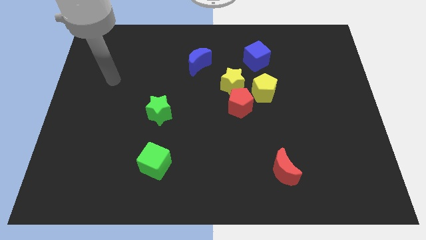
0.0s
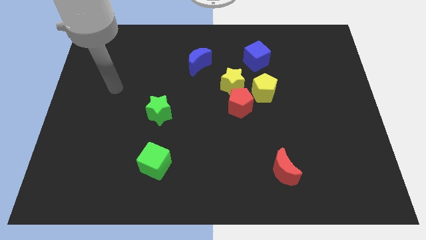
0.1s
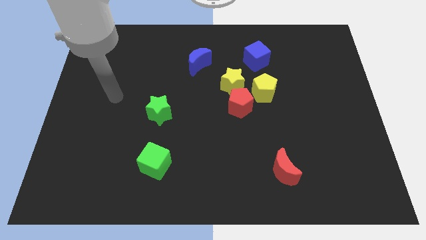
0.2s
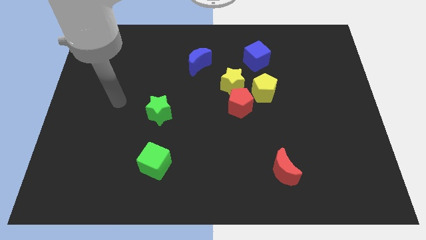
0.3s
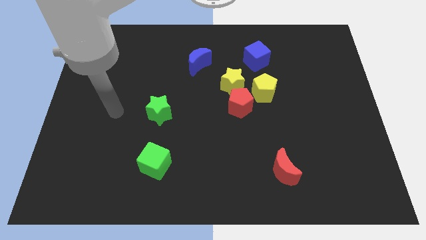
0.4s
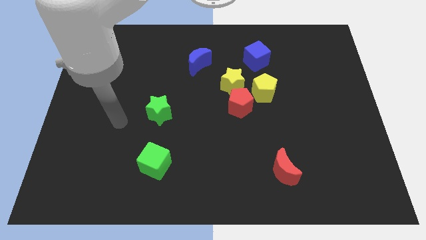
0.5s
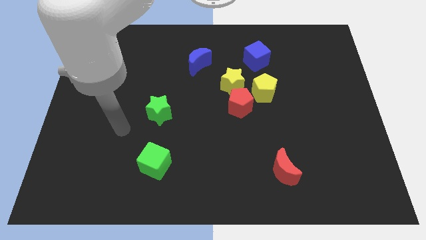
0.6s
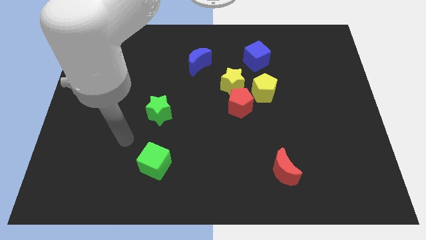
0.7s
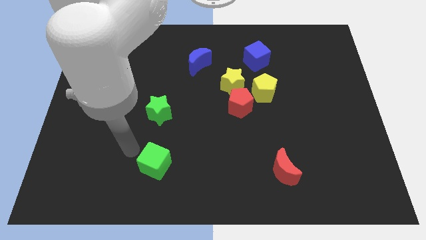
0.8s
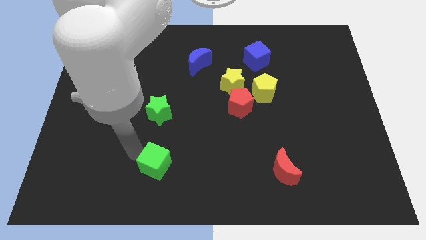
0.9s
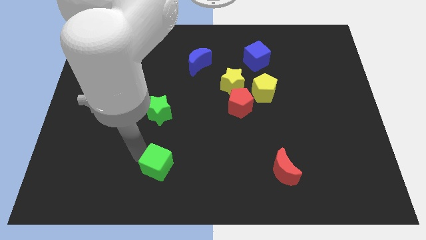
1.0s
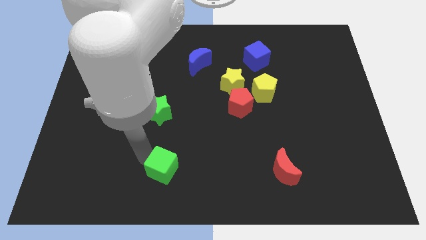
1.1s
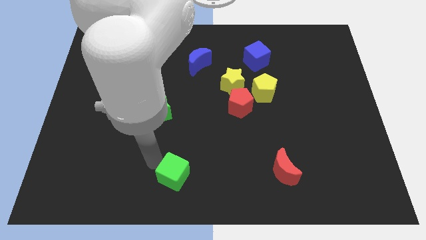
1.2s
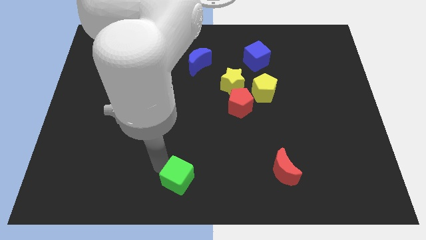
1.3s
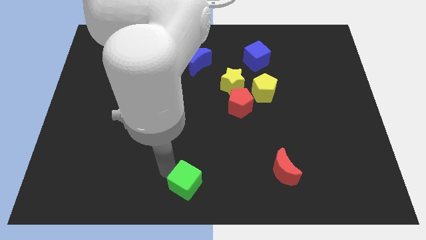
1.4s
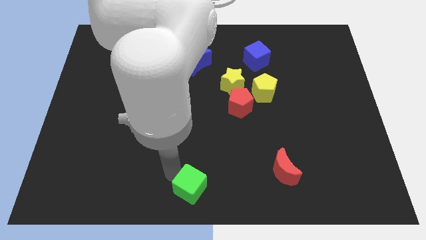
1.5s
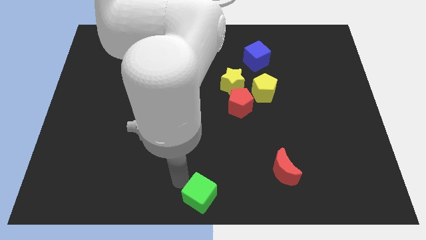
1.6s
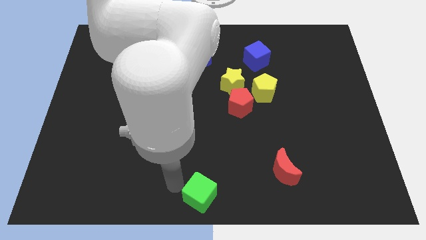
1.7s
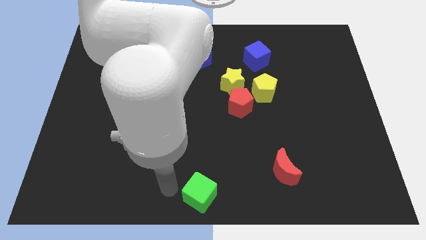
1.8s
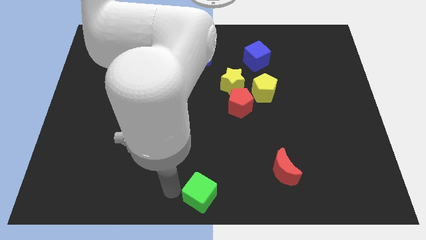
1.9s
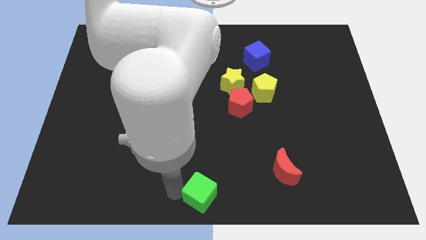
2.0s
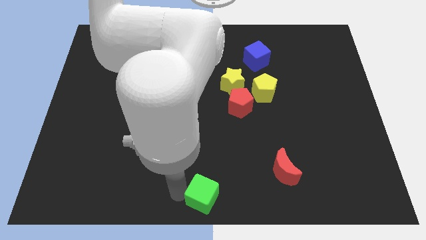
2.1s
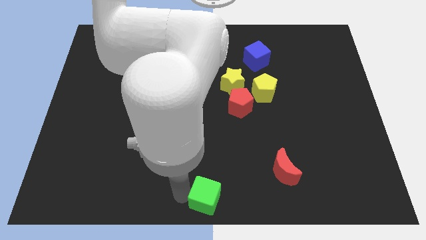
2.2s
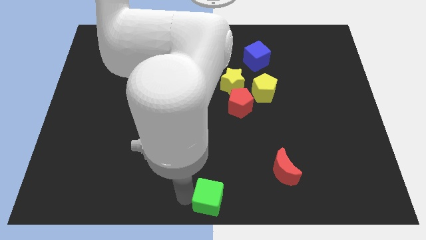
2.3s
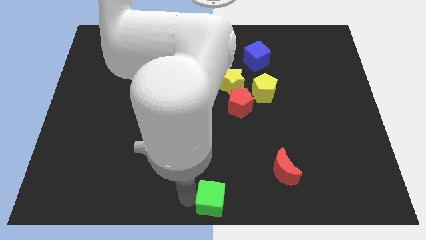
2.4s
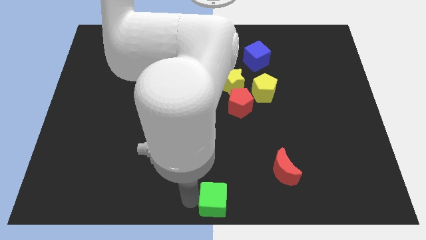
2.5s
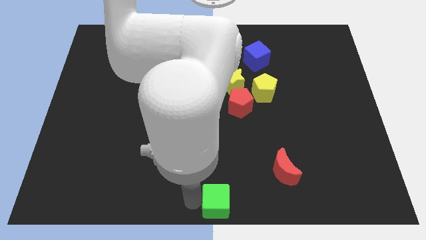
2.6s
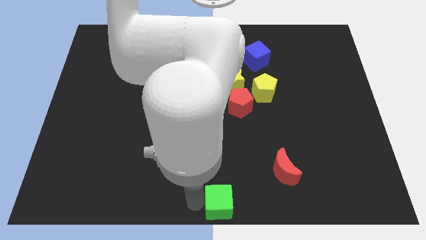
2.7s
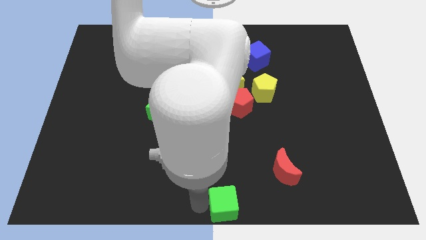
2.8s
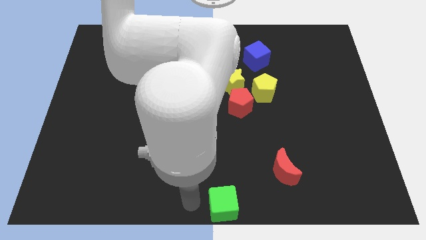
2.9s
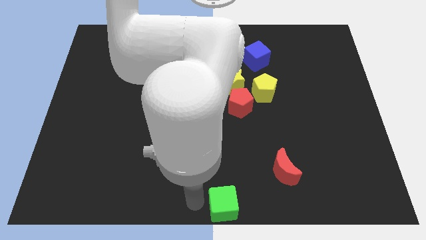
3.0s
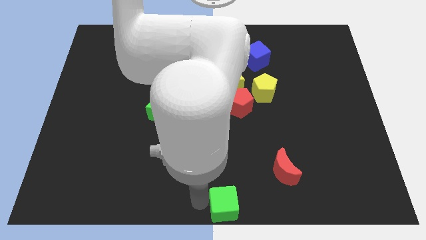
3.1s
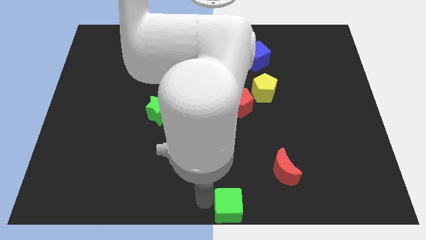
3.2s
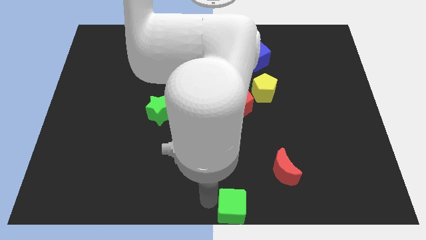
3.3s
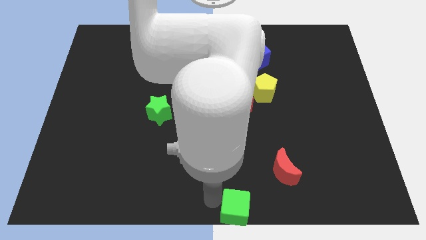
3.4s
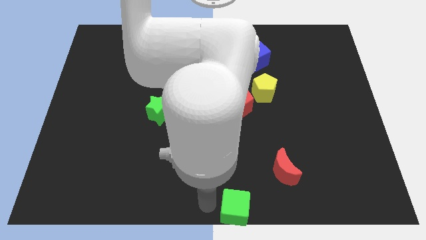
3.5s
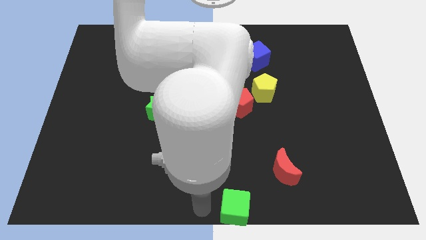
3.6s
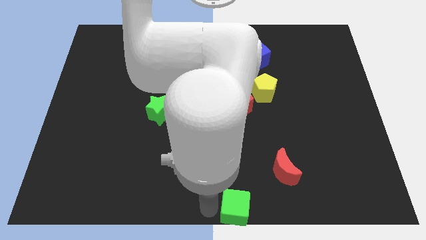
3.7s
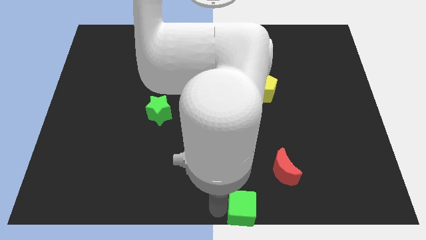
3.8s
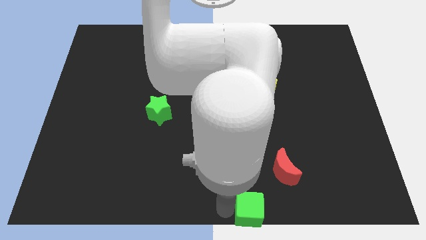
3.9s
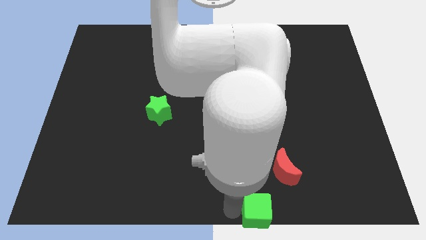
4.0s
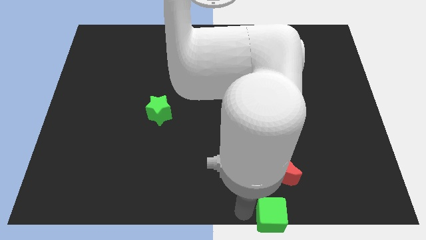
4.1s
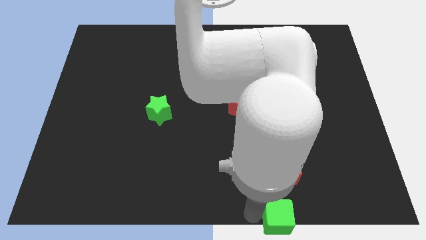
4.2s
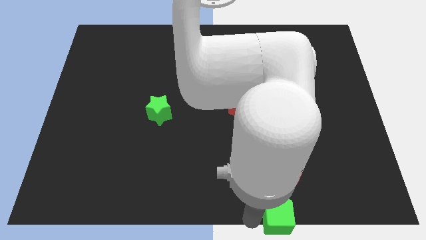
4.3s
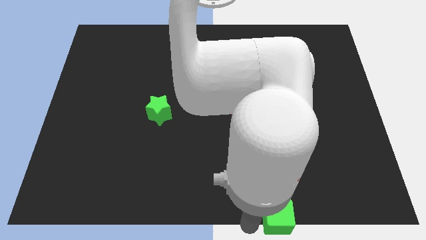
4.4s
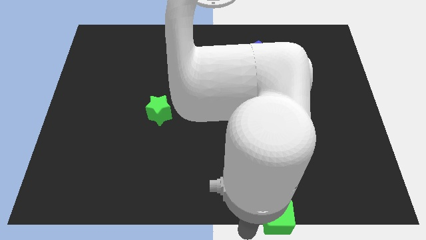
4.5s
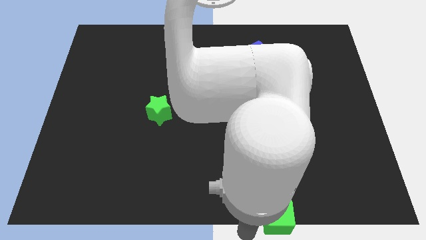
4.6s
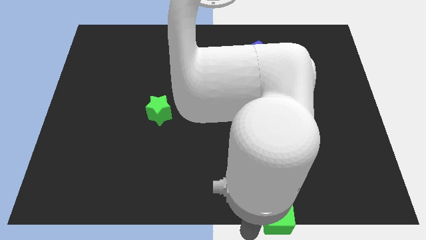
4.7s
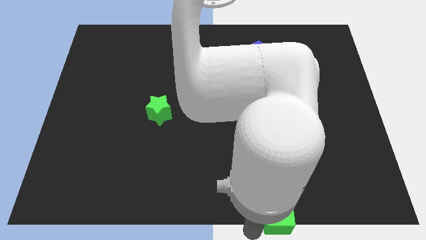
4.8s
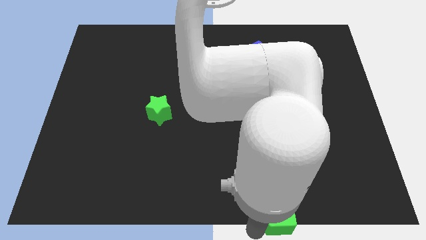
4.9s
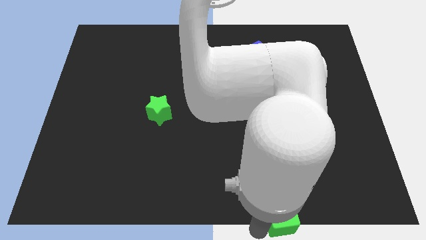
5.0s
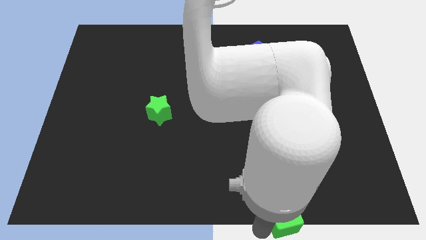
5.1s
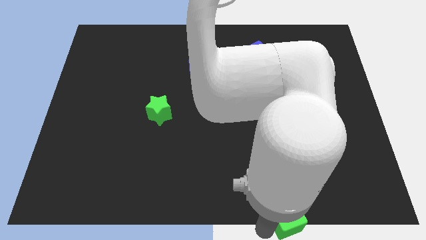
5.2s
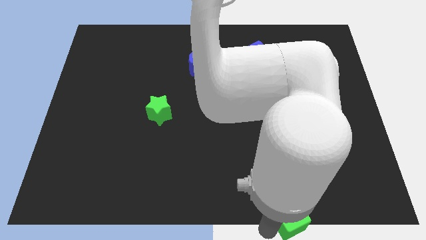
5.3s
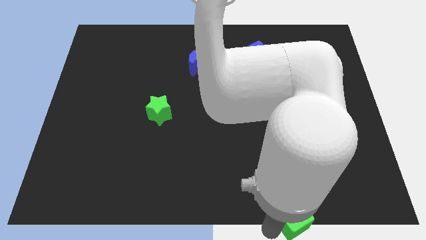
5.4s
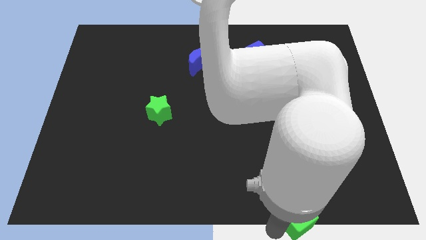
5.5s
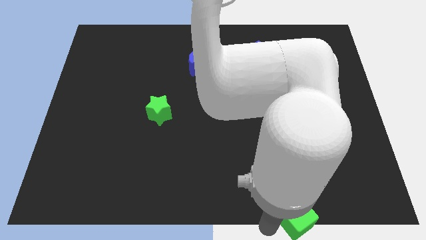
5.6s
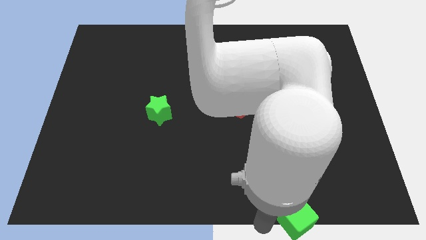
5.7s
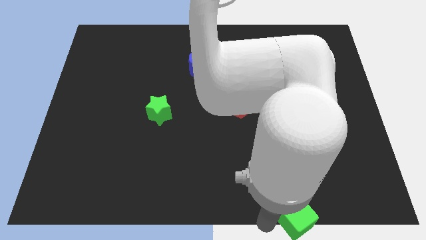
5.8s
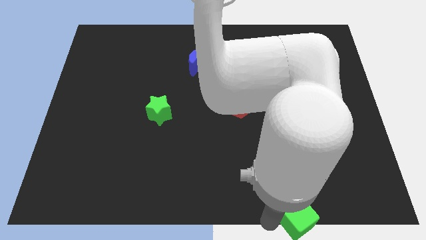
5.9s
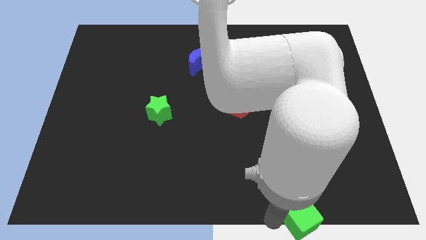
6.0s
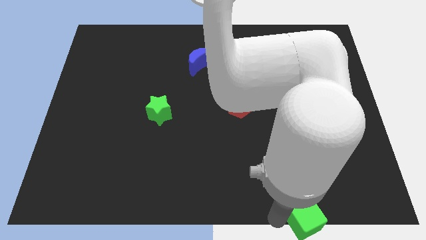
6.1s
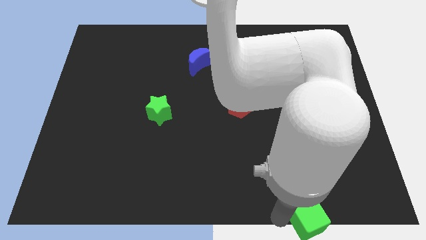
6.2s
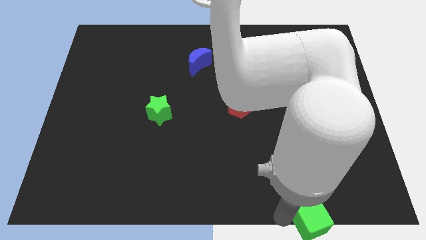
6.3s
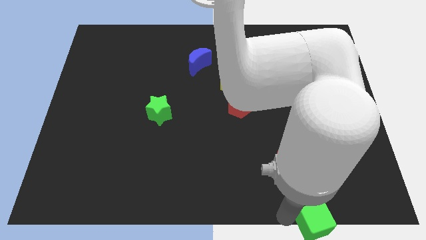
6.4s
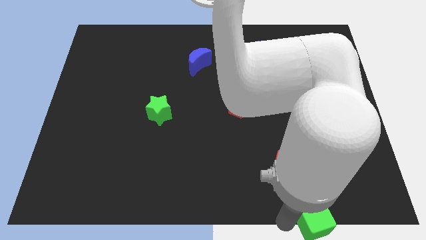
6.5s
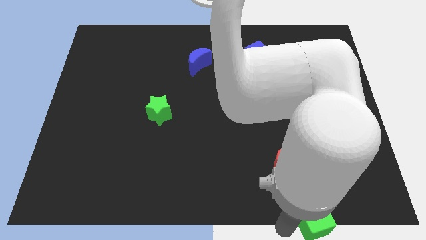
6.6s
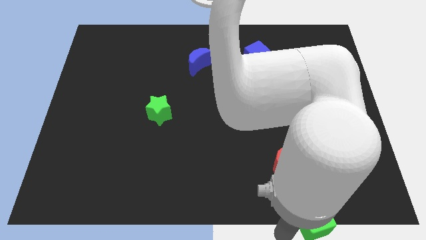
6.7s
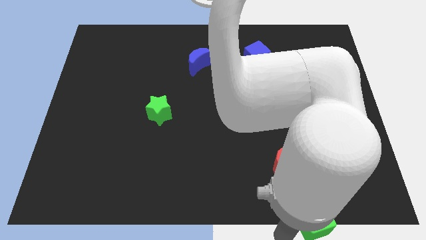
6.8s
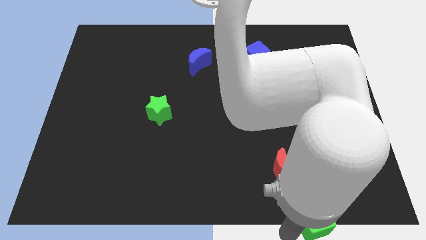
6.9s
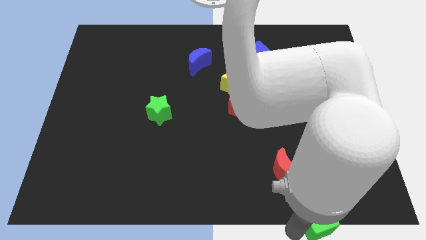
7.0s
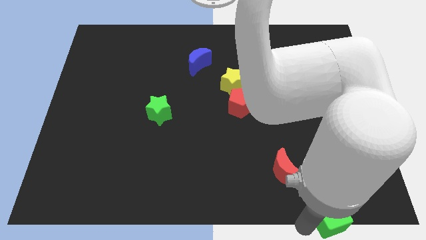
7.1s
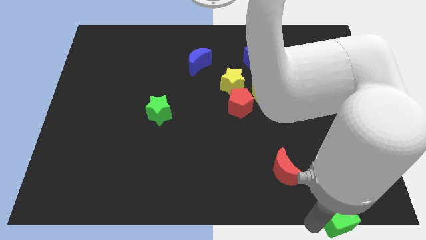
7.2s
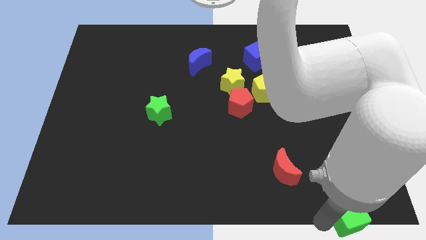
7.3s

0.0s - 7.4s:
slide the green cube to the lower right corner

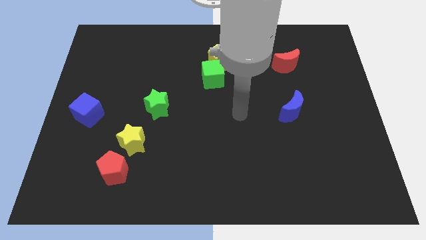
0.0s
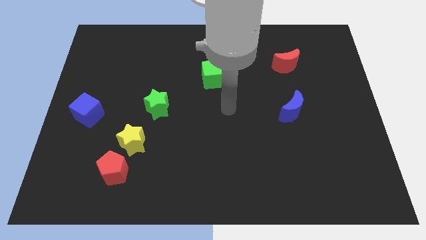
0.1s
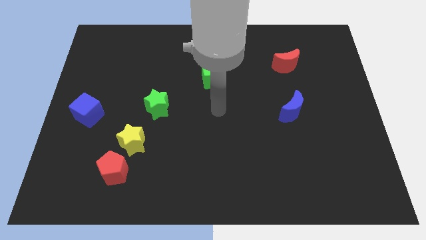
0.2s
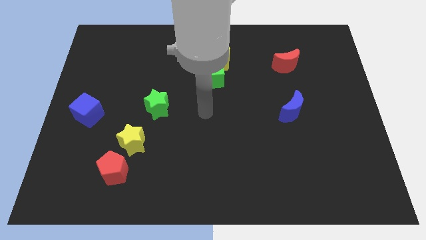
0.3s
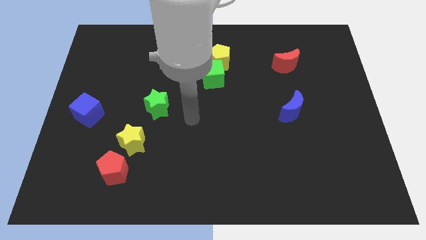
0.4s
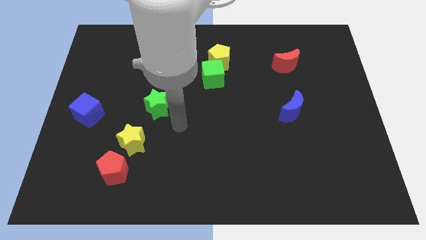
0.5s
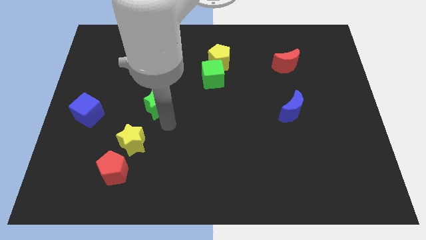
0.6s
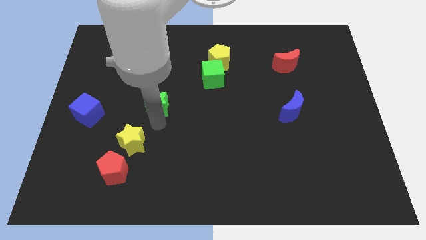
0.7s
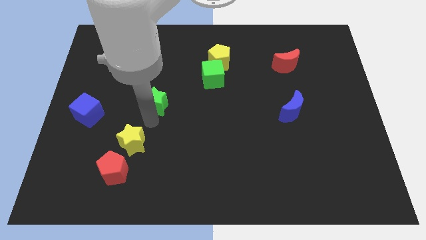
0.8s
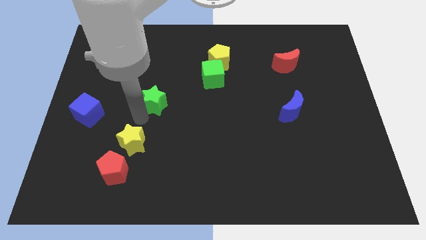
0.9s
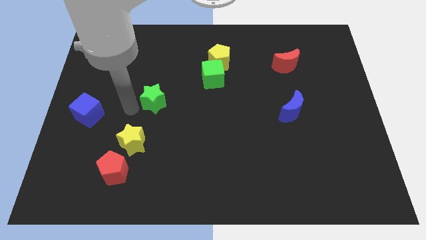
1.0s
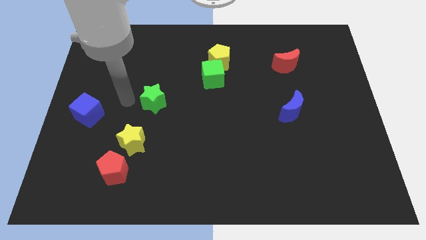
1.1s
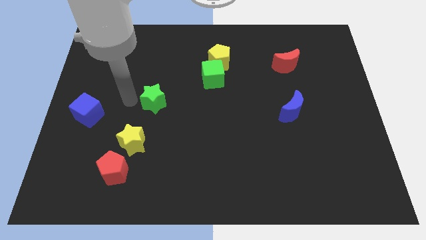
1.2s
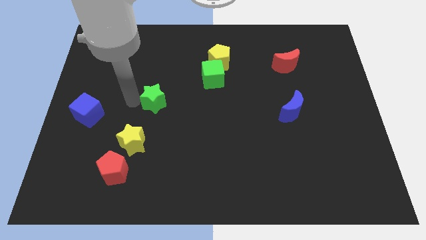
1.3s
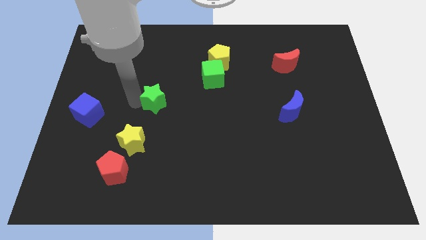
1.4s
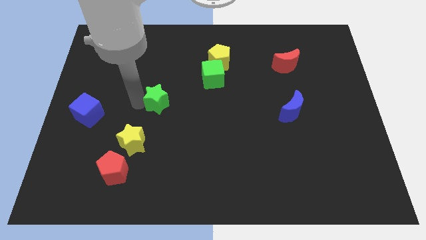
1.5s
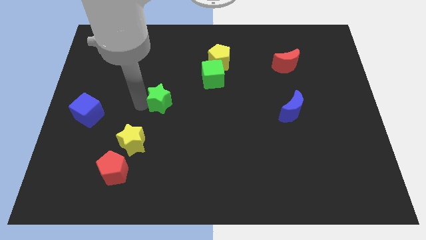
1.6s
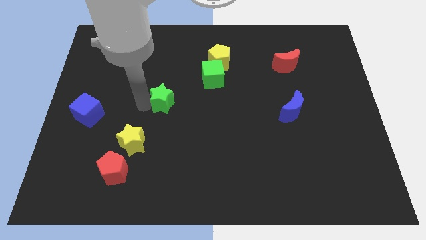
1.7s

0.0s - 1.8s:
push the green star to the center
